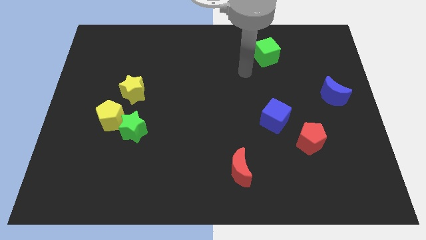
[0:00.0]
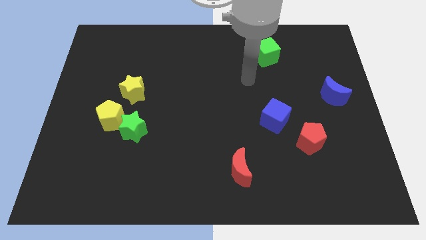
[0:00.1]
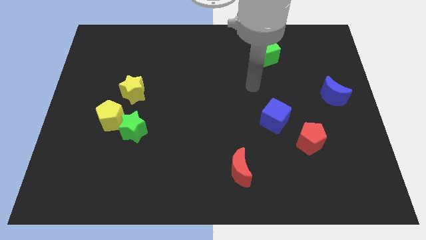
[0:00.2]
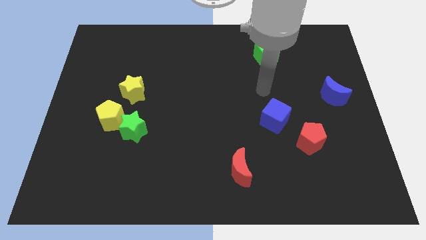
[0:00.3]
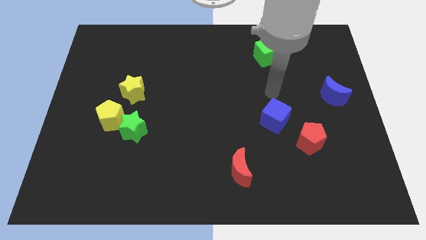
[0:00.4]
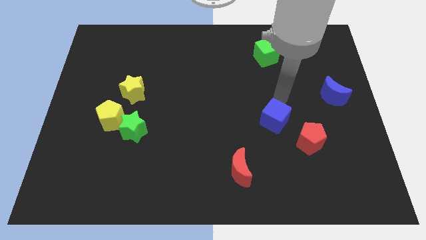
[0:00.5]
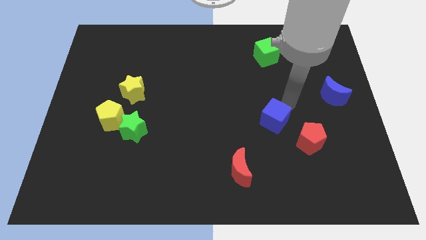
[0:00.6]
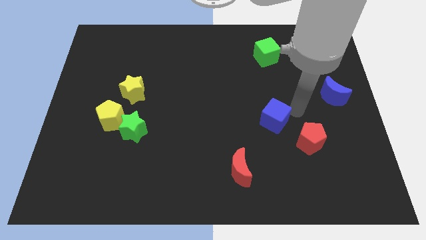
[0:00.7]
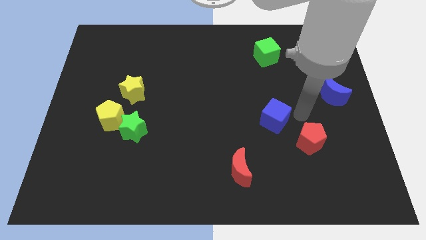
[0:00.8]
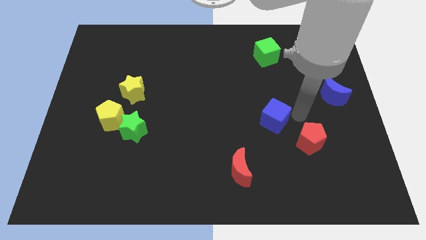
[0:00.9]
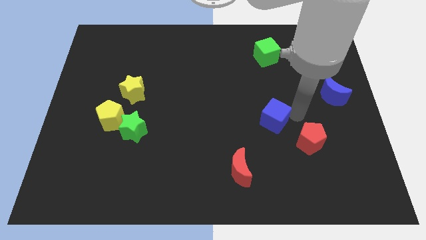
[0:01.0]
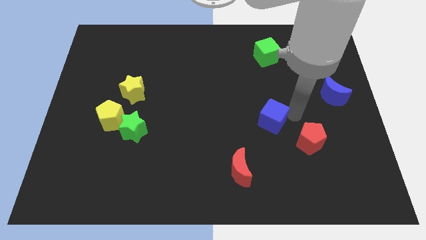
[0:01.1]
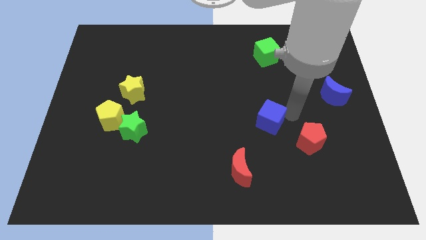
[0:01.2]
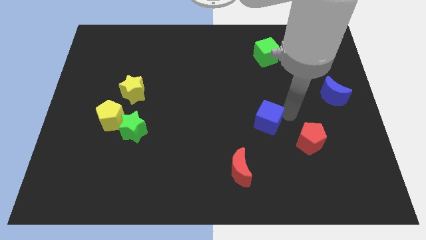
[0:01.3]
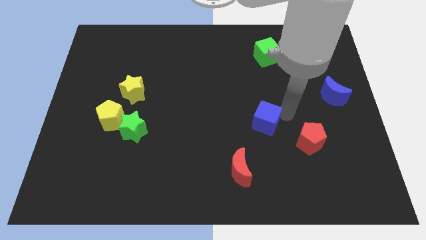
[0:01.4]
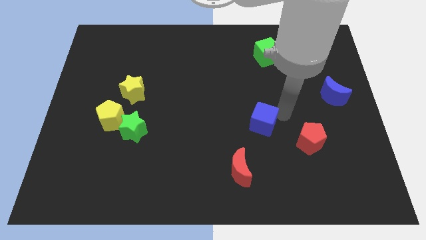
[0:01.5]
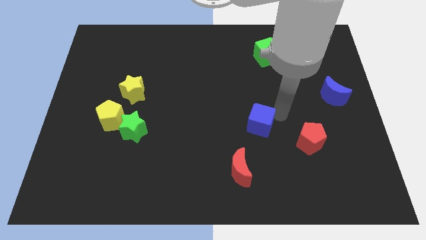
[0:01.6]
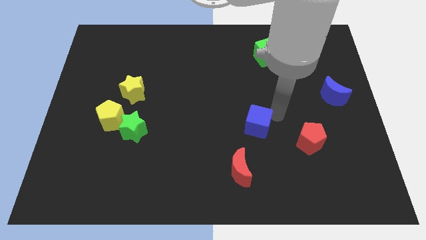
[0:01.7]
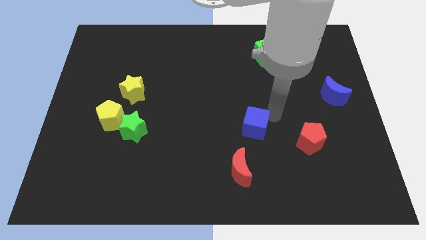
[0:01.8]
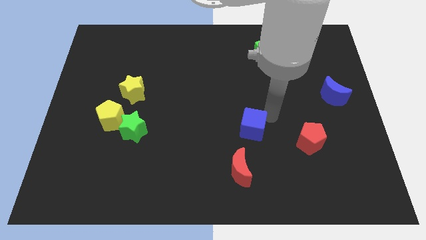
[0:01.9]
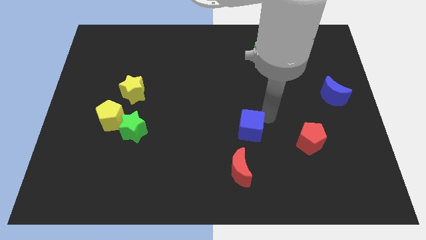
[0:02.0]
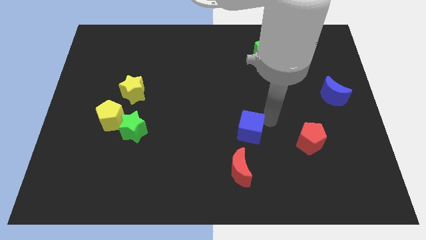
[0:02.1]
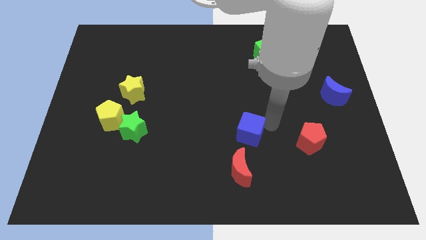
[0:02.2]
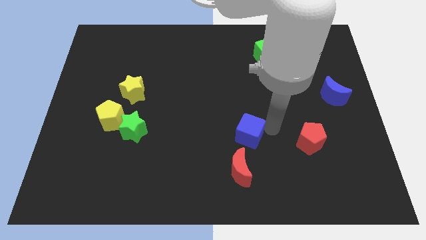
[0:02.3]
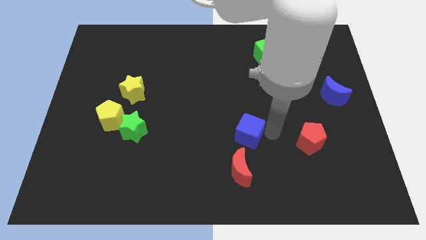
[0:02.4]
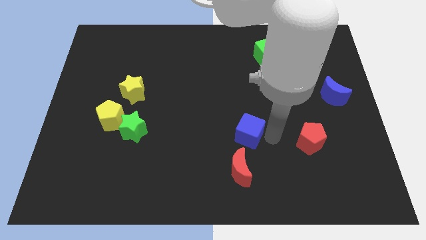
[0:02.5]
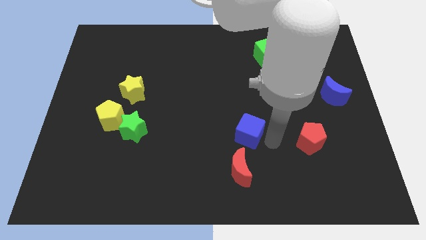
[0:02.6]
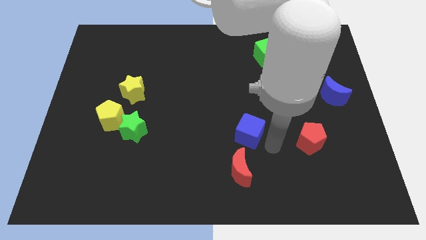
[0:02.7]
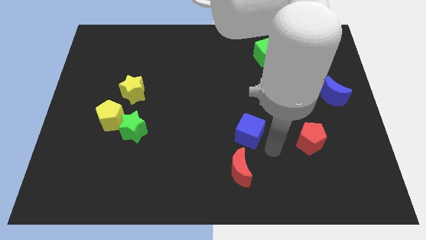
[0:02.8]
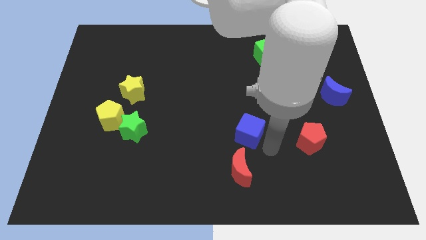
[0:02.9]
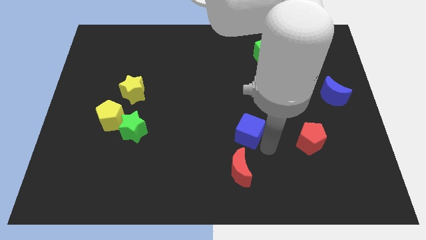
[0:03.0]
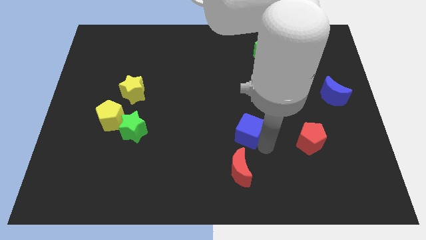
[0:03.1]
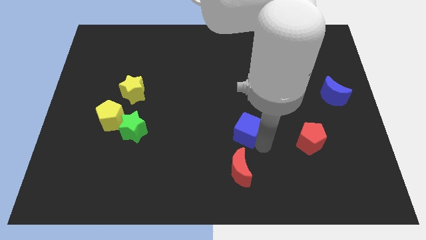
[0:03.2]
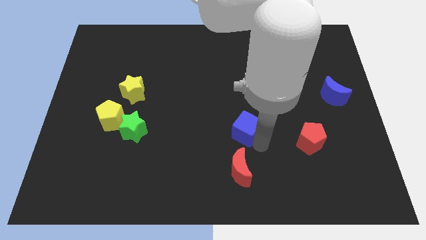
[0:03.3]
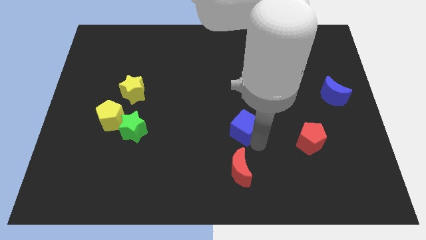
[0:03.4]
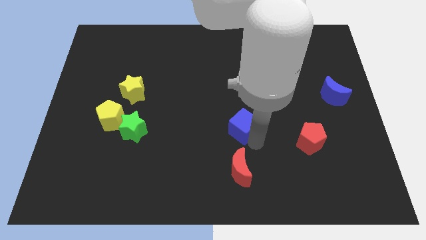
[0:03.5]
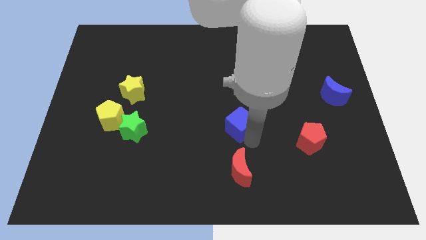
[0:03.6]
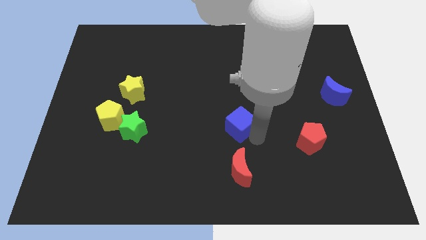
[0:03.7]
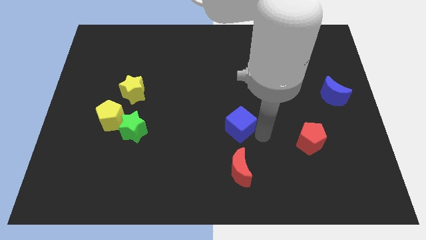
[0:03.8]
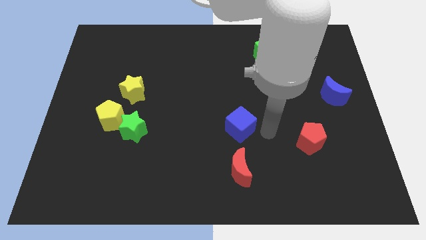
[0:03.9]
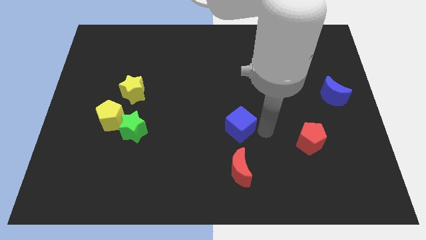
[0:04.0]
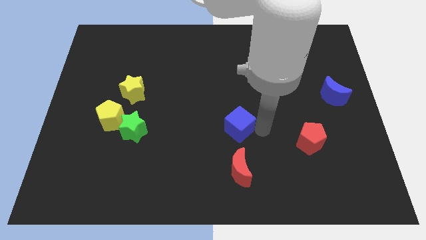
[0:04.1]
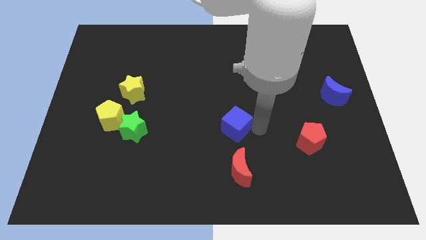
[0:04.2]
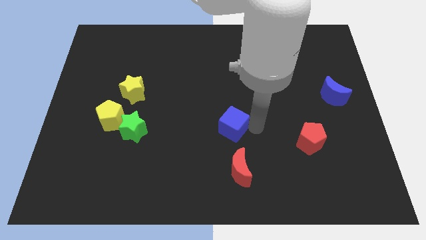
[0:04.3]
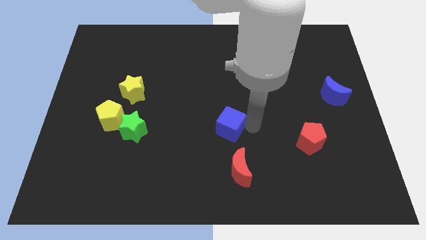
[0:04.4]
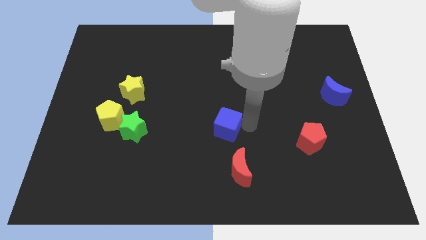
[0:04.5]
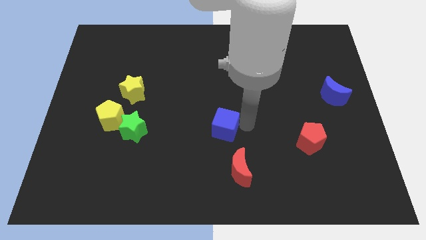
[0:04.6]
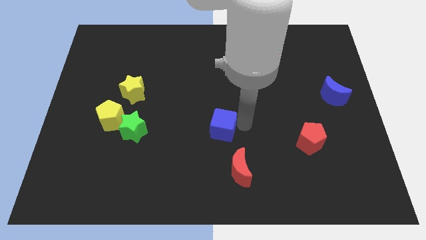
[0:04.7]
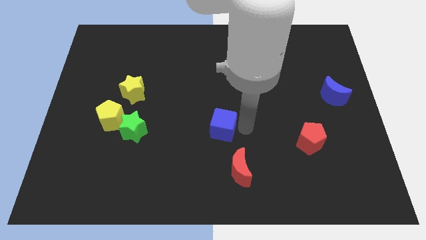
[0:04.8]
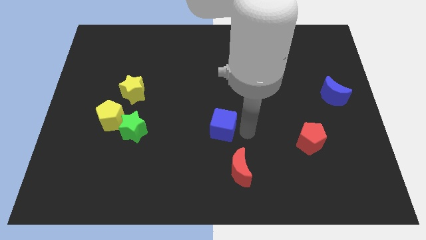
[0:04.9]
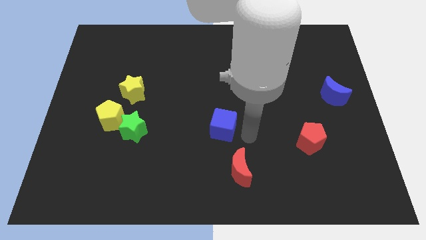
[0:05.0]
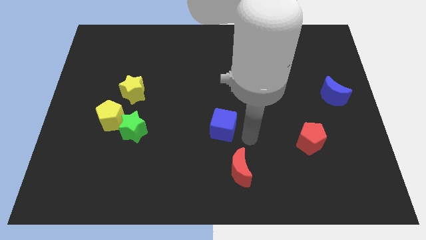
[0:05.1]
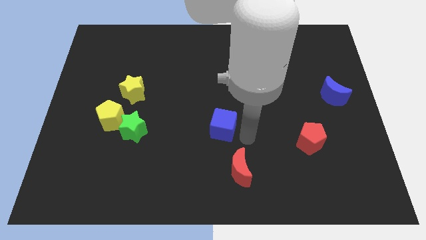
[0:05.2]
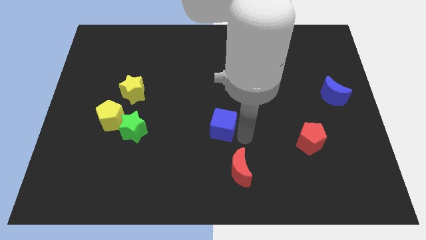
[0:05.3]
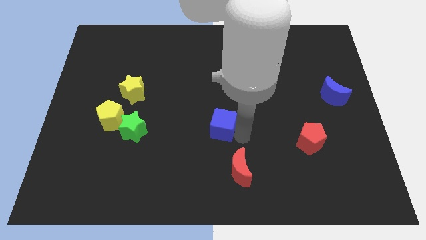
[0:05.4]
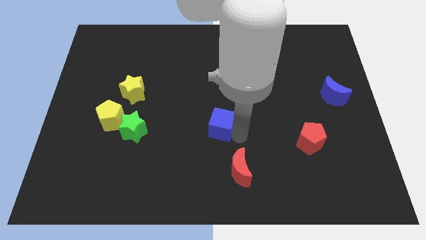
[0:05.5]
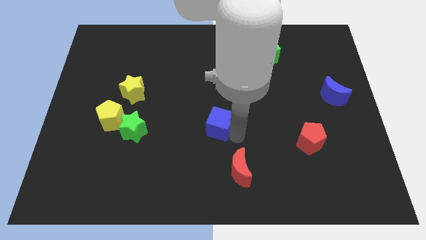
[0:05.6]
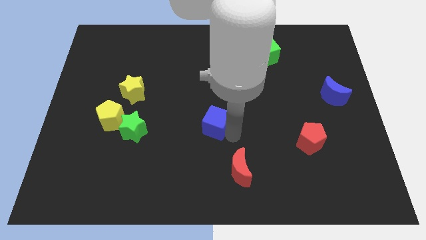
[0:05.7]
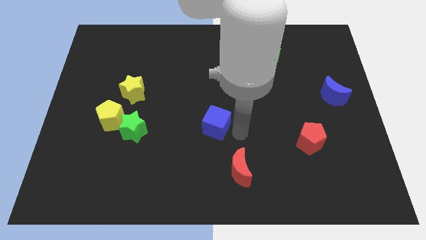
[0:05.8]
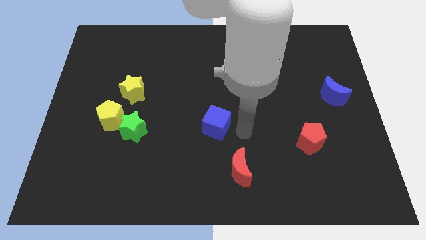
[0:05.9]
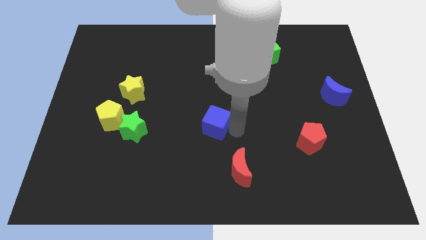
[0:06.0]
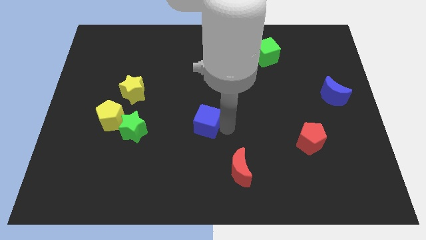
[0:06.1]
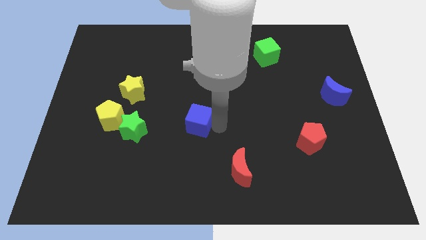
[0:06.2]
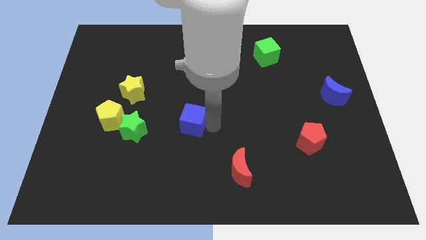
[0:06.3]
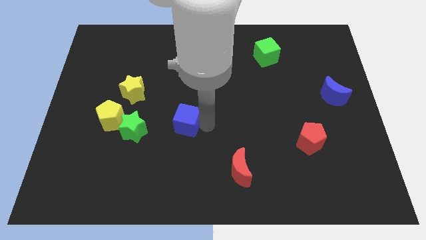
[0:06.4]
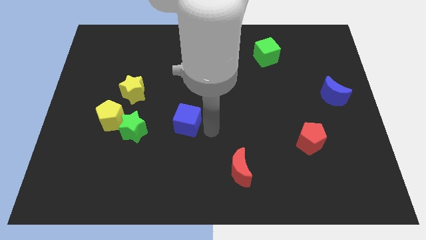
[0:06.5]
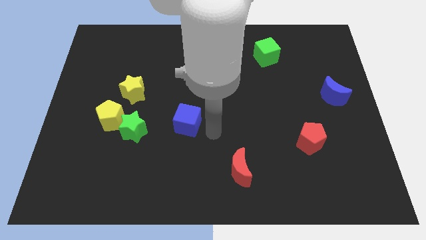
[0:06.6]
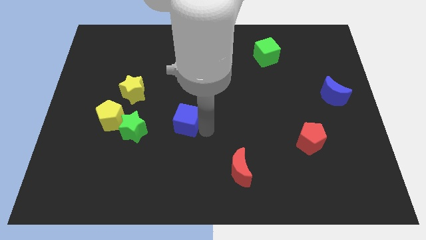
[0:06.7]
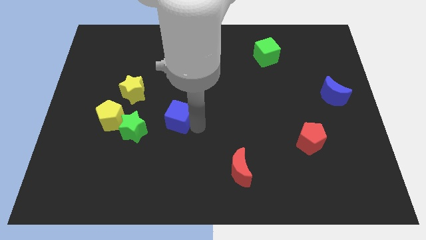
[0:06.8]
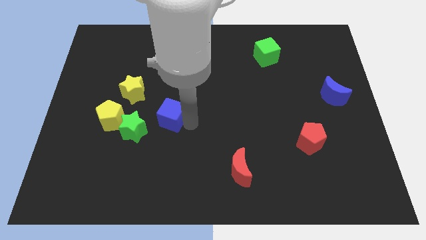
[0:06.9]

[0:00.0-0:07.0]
put the blue cube diagonally down and to the right of the yellow star
